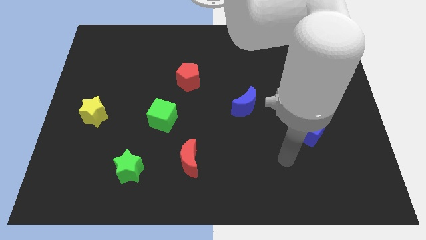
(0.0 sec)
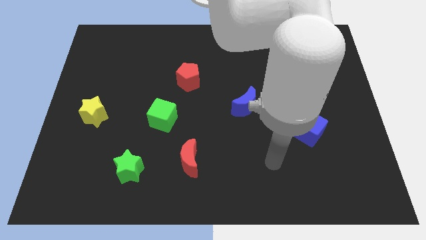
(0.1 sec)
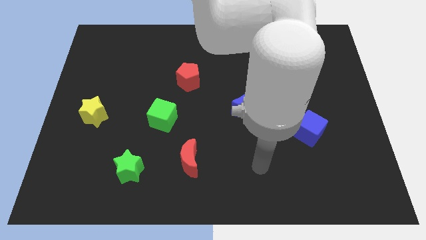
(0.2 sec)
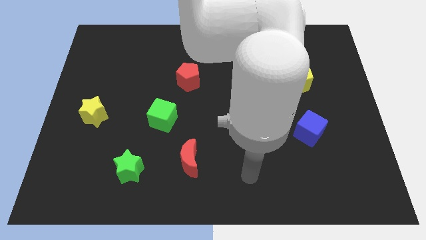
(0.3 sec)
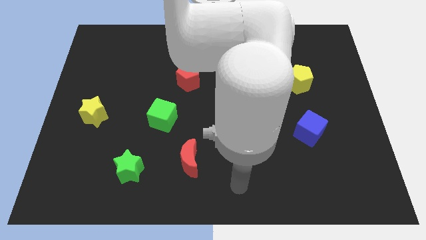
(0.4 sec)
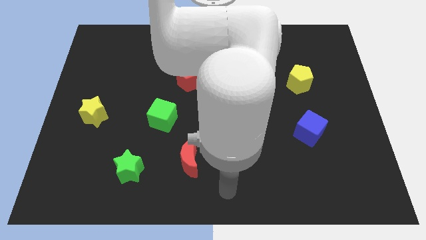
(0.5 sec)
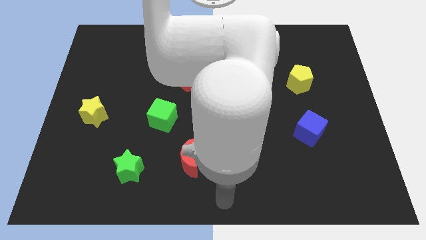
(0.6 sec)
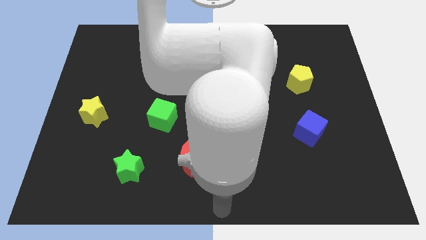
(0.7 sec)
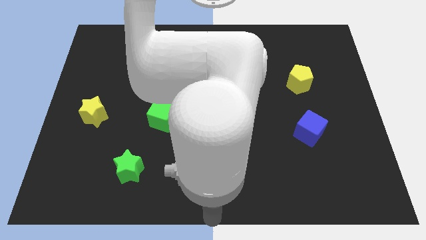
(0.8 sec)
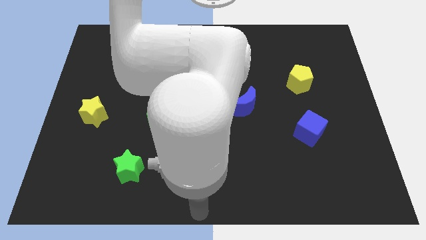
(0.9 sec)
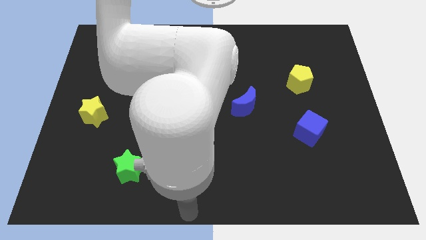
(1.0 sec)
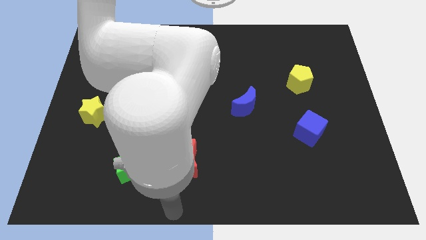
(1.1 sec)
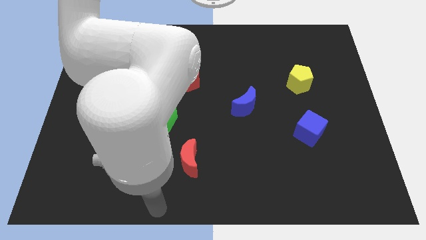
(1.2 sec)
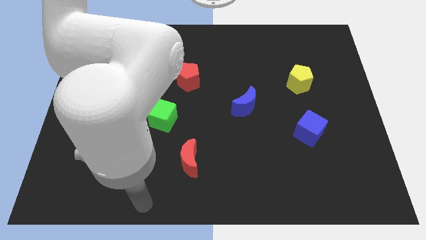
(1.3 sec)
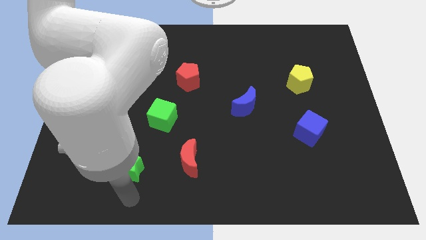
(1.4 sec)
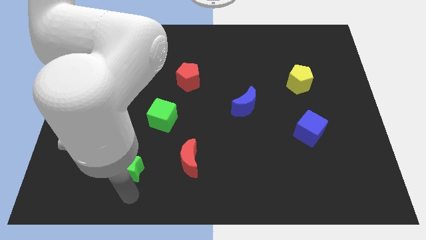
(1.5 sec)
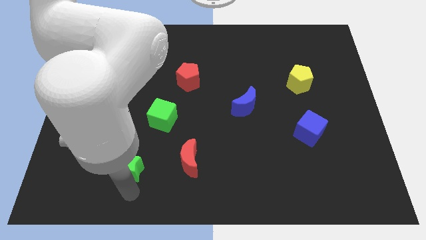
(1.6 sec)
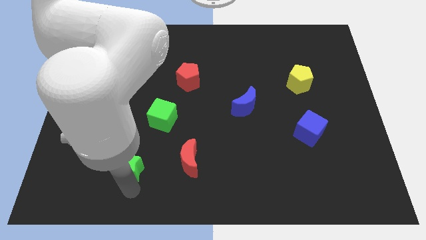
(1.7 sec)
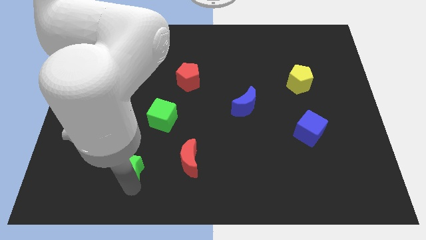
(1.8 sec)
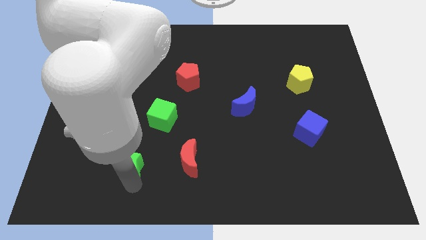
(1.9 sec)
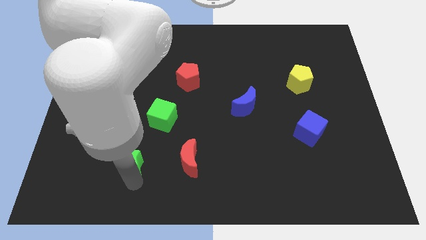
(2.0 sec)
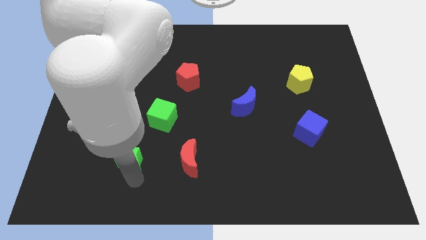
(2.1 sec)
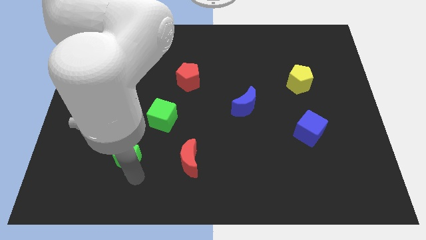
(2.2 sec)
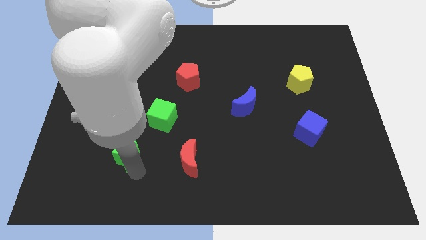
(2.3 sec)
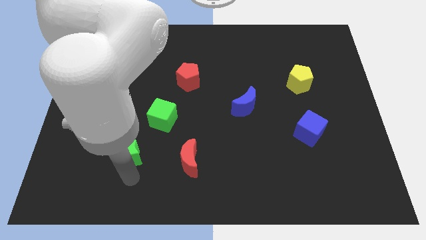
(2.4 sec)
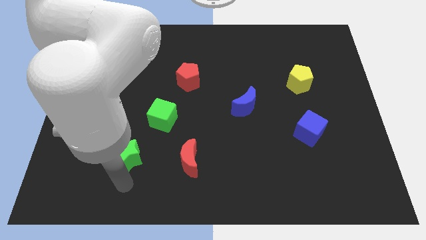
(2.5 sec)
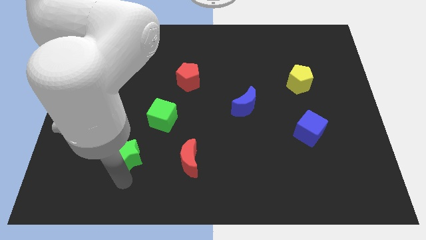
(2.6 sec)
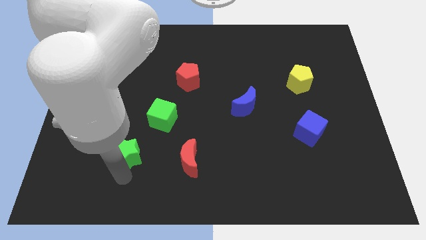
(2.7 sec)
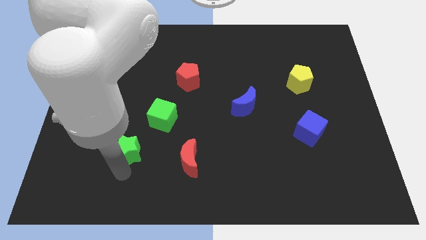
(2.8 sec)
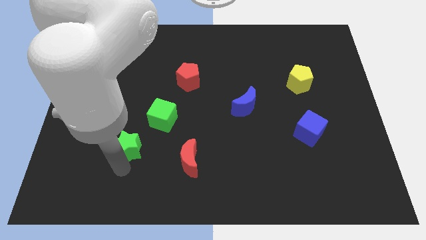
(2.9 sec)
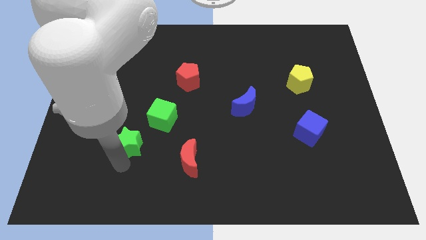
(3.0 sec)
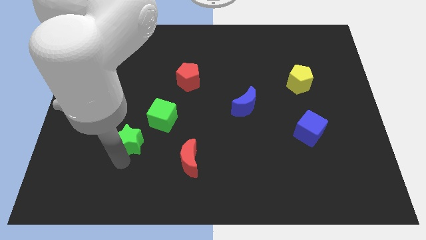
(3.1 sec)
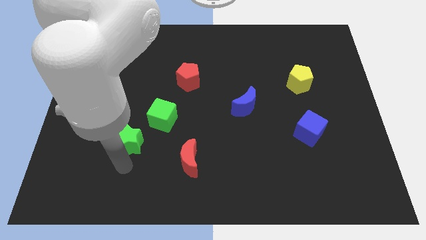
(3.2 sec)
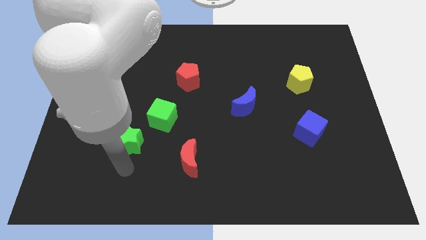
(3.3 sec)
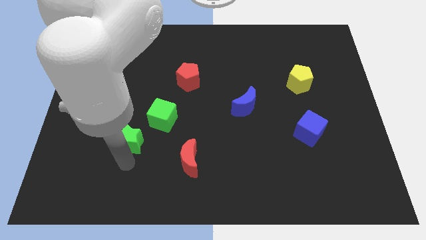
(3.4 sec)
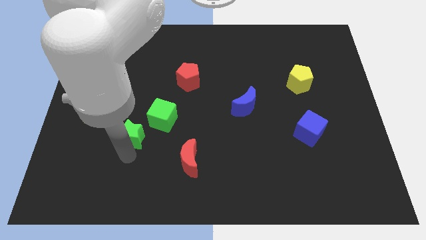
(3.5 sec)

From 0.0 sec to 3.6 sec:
slide the green star a little bit upwards

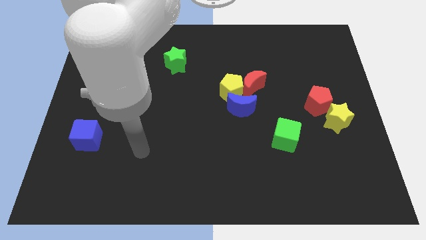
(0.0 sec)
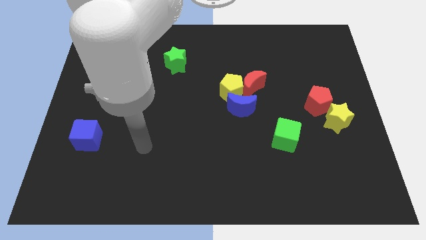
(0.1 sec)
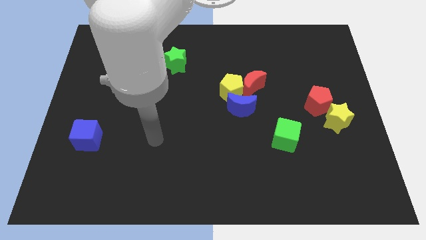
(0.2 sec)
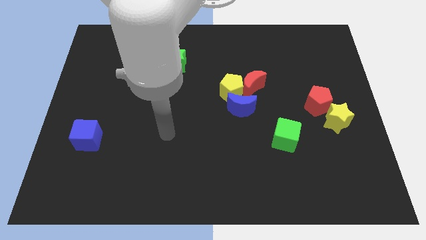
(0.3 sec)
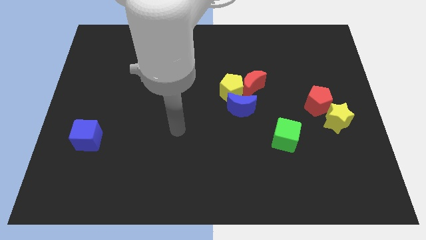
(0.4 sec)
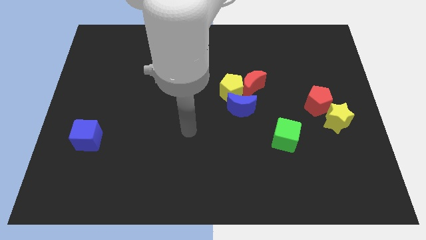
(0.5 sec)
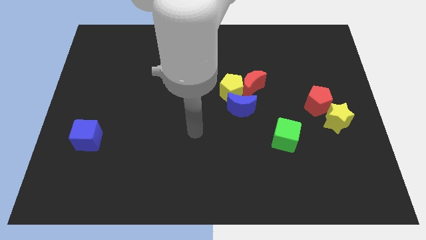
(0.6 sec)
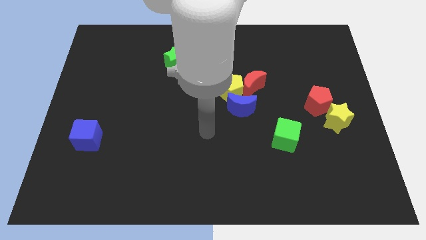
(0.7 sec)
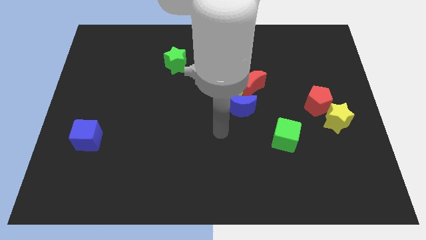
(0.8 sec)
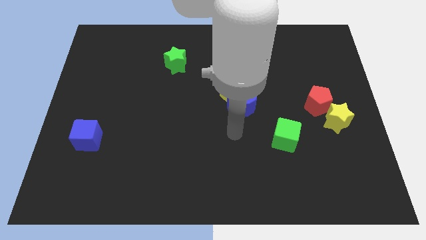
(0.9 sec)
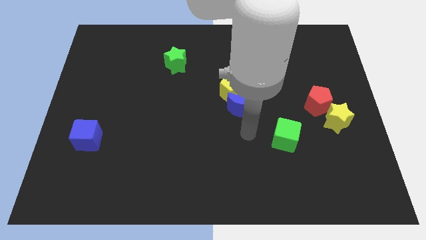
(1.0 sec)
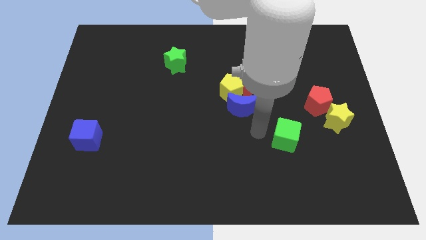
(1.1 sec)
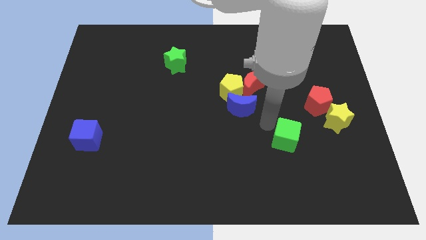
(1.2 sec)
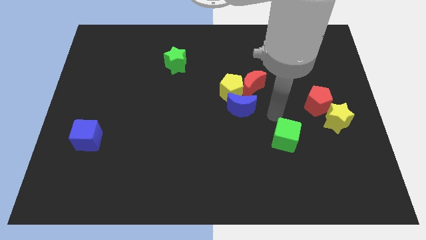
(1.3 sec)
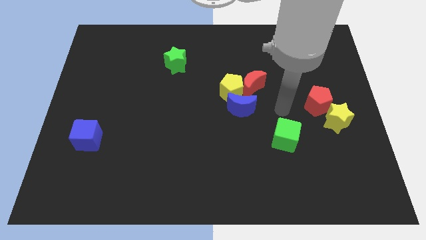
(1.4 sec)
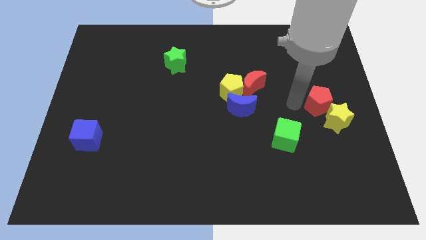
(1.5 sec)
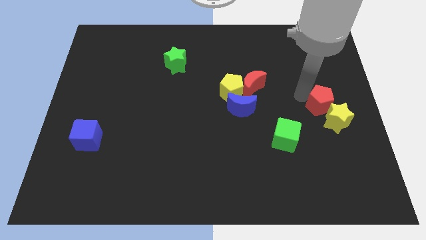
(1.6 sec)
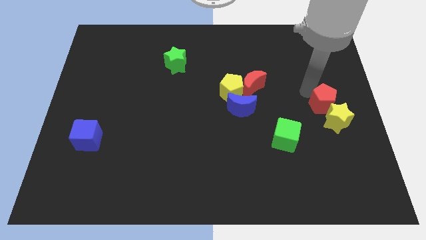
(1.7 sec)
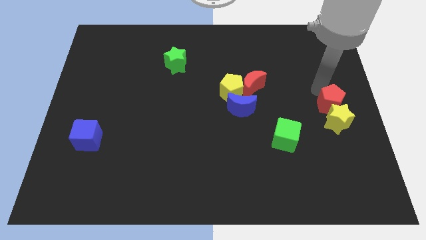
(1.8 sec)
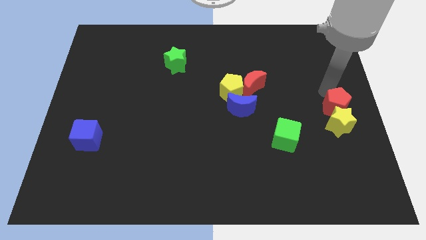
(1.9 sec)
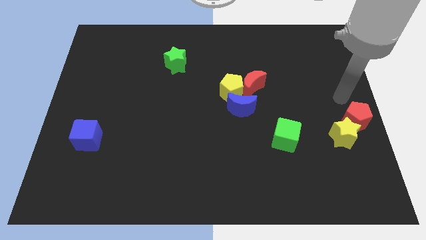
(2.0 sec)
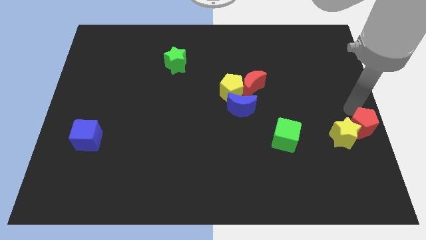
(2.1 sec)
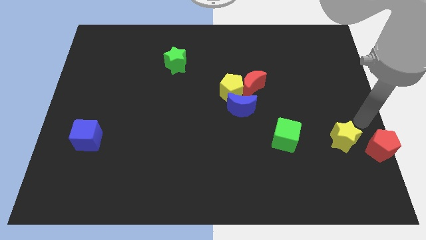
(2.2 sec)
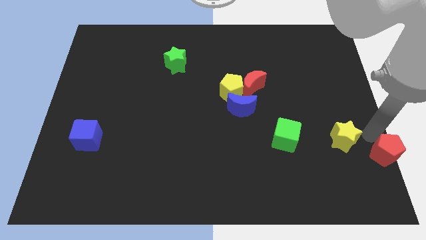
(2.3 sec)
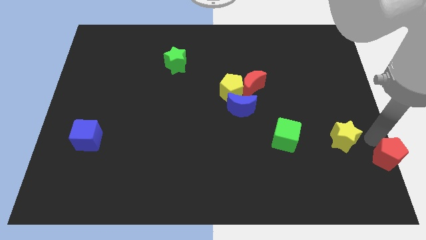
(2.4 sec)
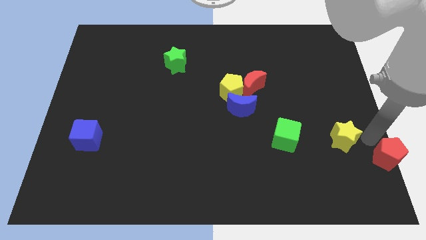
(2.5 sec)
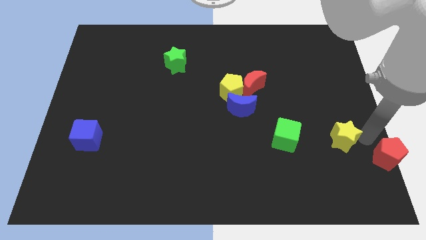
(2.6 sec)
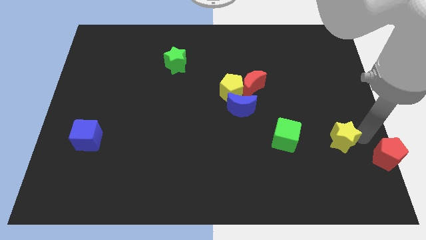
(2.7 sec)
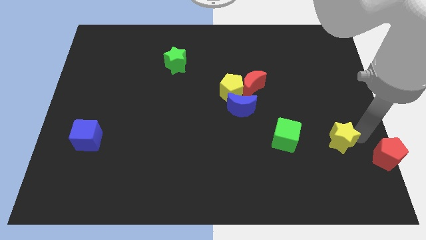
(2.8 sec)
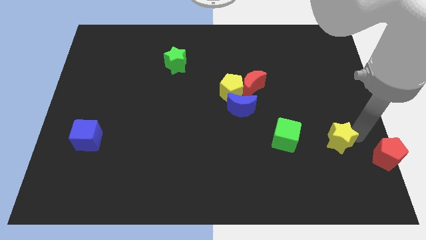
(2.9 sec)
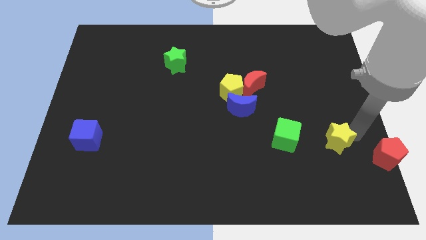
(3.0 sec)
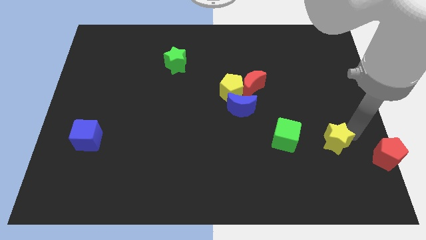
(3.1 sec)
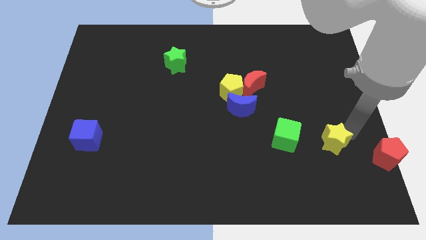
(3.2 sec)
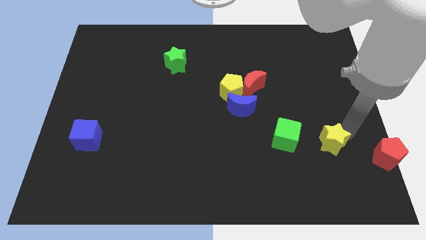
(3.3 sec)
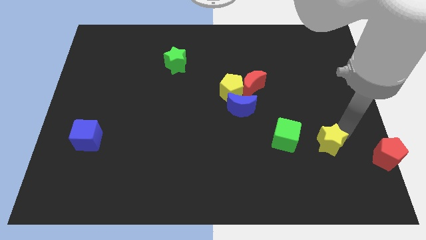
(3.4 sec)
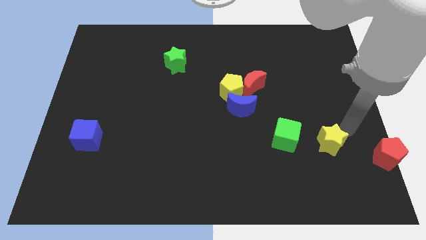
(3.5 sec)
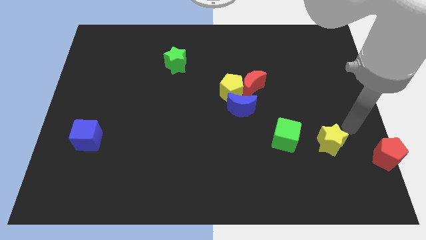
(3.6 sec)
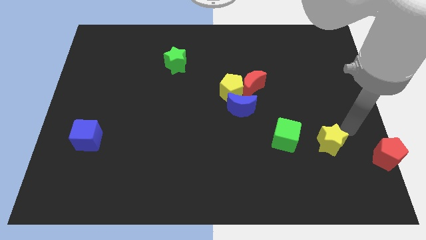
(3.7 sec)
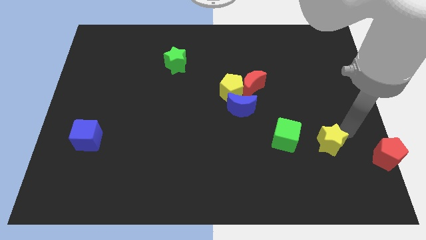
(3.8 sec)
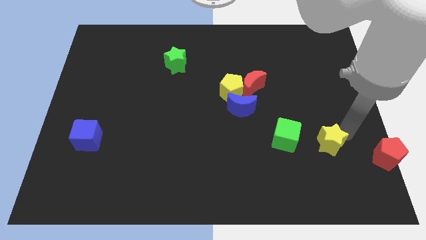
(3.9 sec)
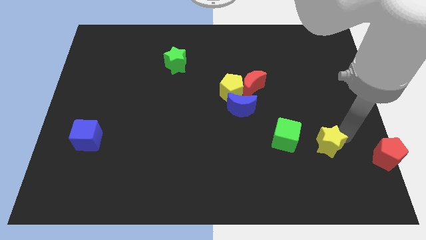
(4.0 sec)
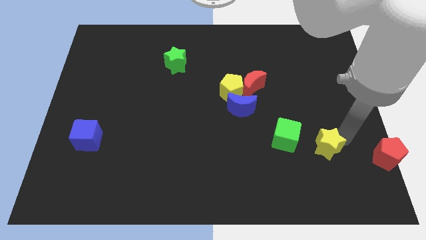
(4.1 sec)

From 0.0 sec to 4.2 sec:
slightly slide the yellow star downwards and to the left diagonally

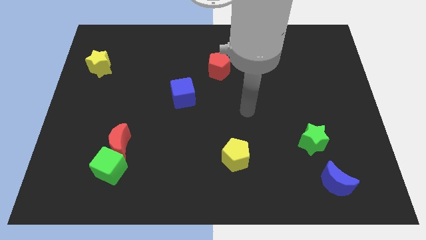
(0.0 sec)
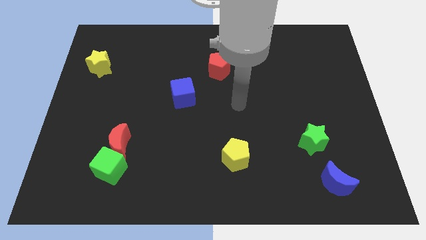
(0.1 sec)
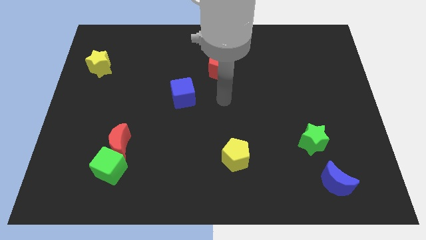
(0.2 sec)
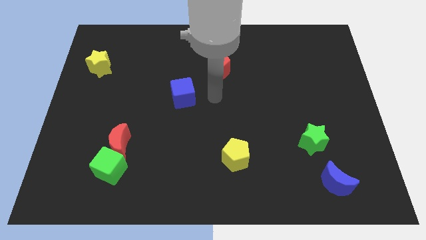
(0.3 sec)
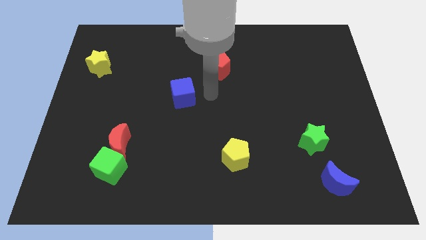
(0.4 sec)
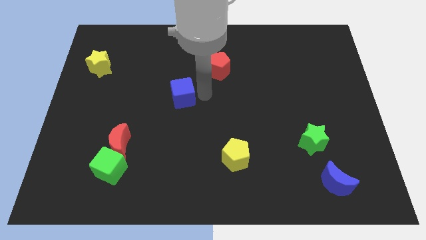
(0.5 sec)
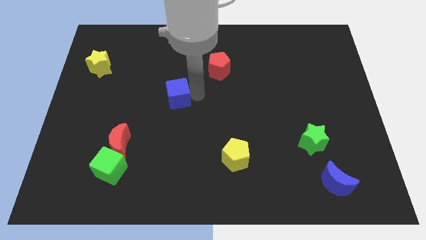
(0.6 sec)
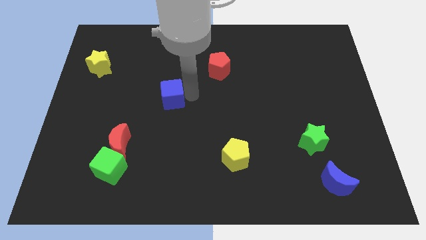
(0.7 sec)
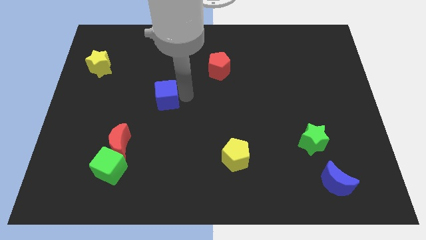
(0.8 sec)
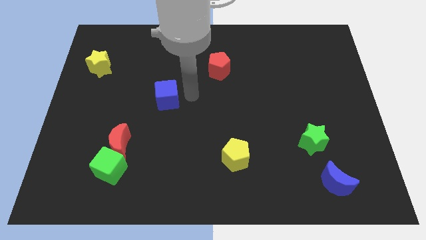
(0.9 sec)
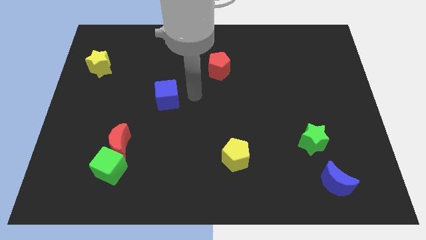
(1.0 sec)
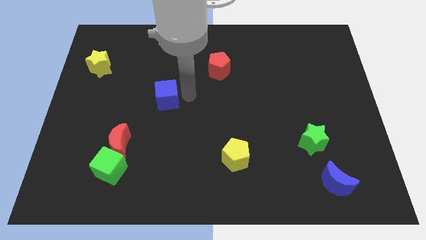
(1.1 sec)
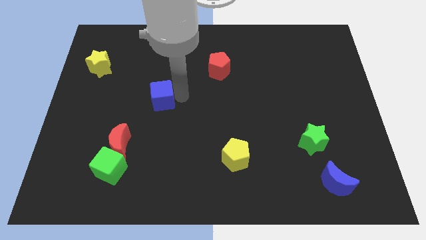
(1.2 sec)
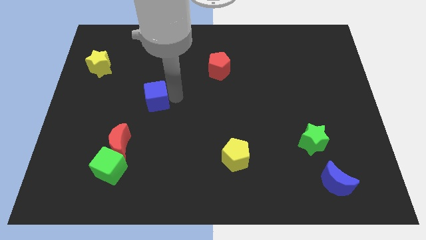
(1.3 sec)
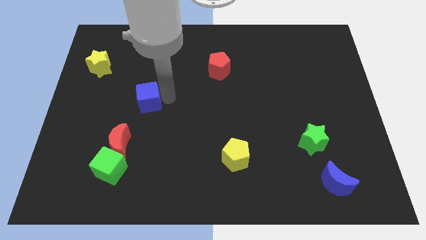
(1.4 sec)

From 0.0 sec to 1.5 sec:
slightly slide the blue cube left
